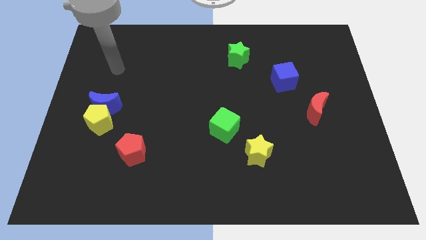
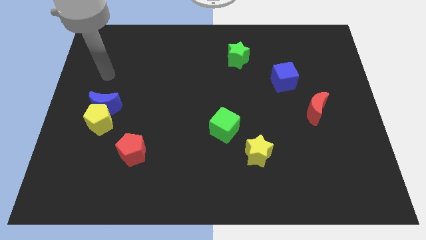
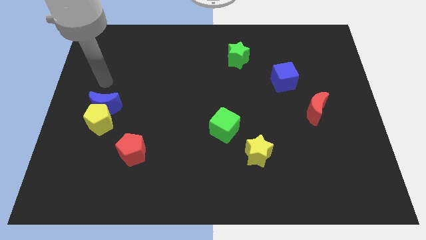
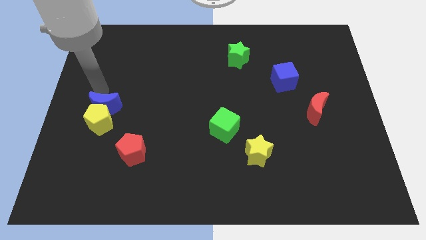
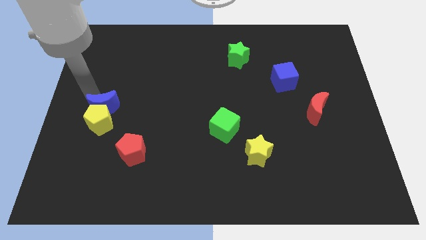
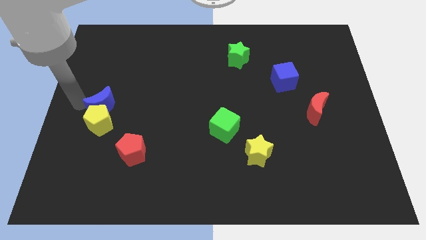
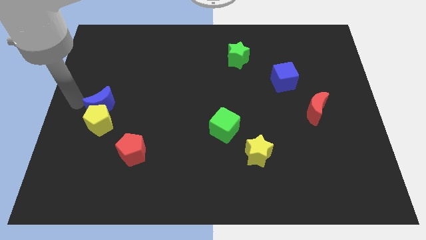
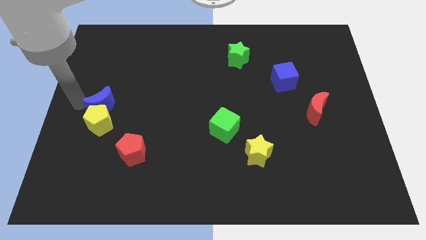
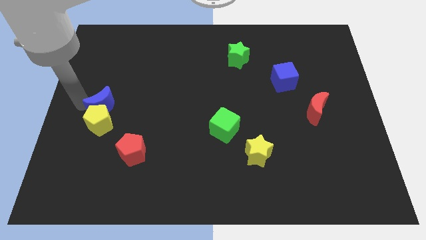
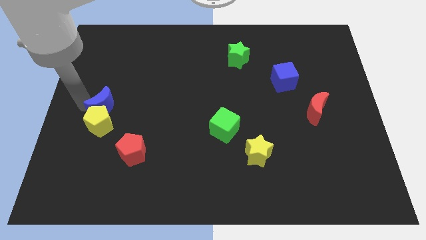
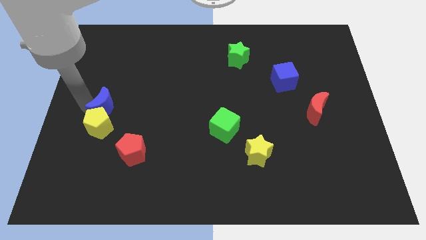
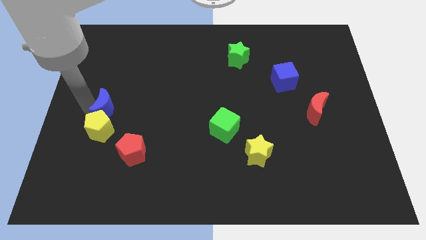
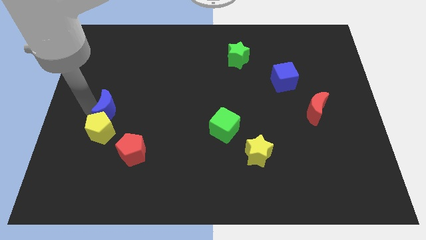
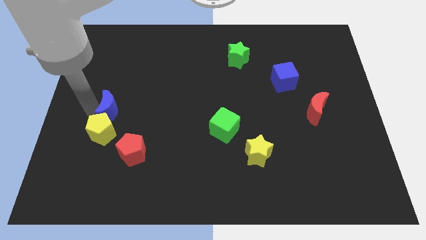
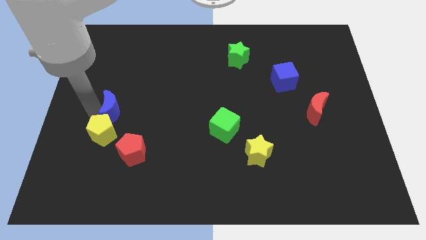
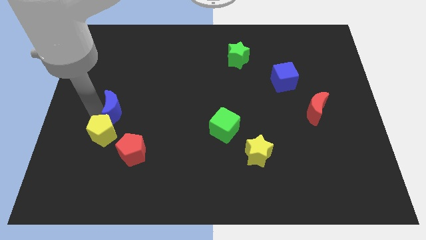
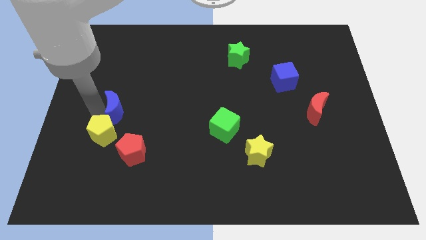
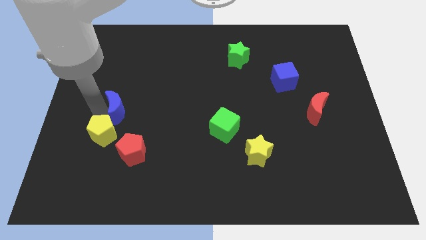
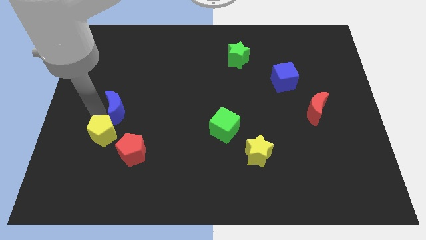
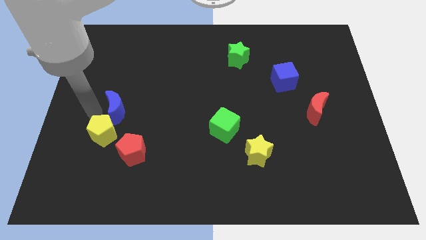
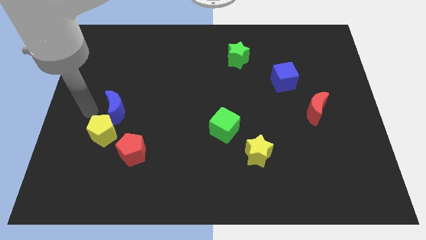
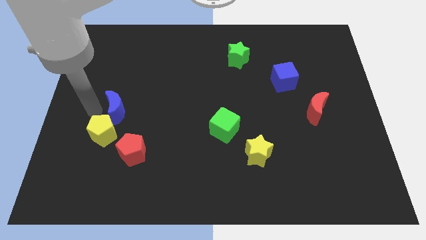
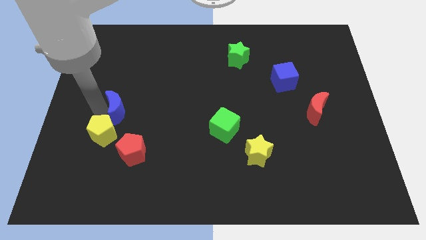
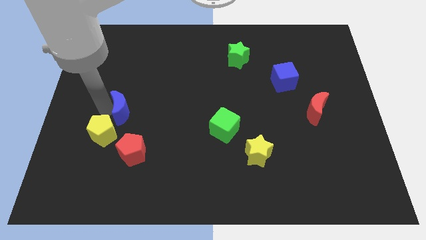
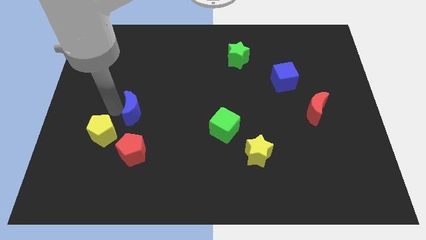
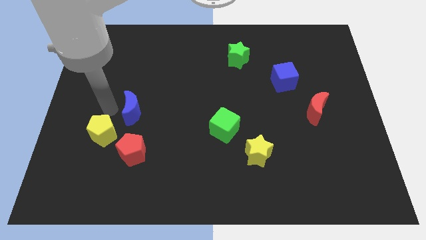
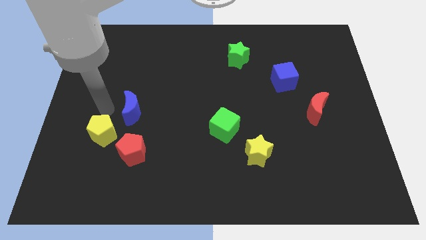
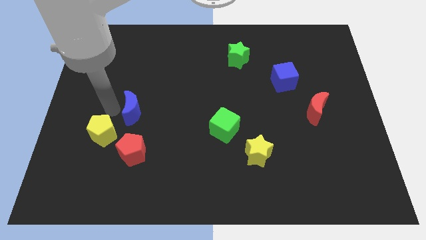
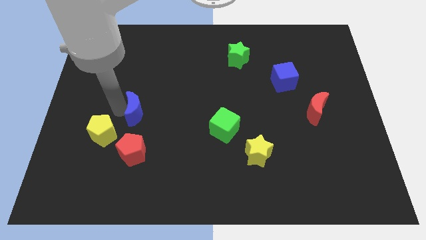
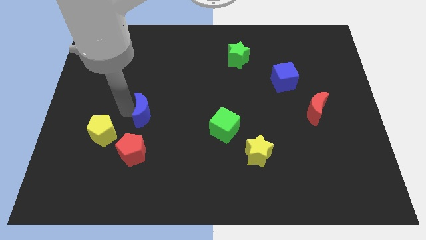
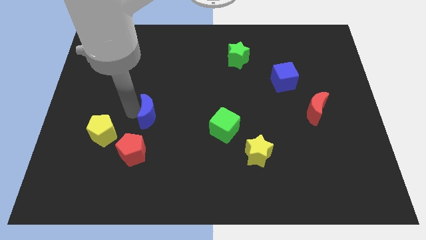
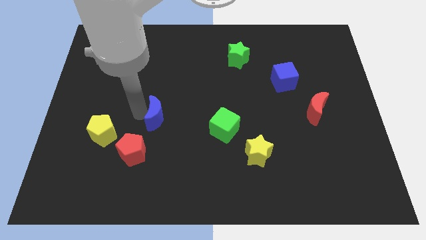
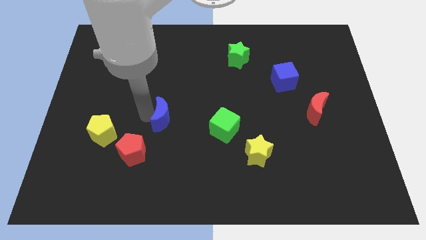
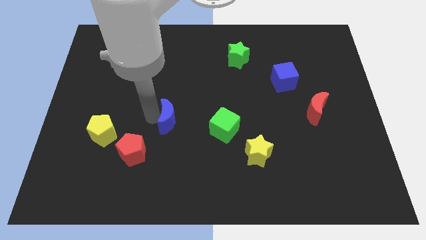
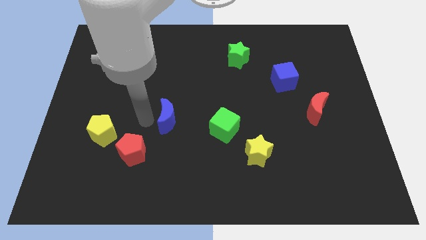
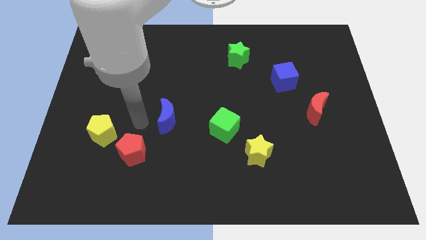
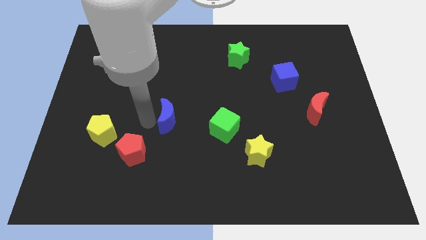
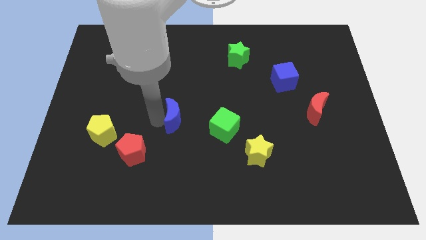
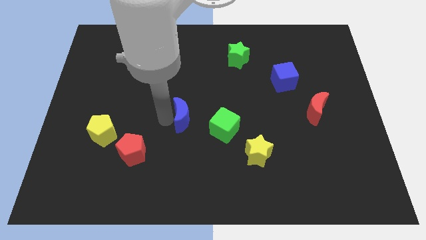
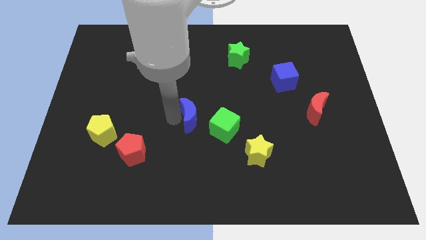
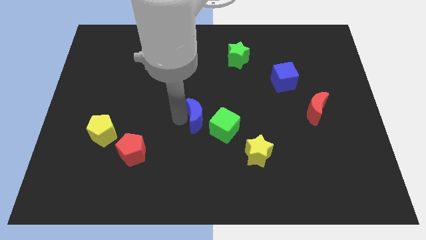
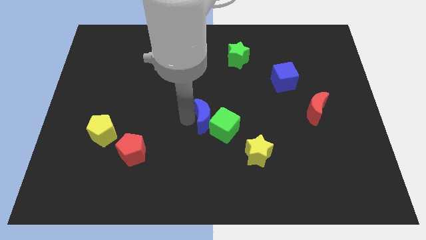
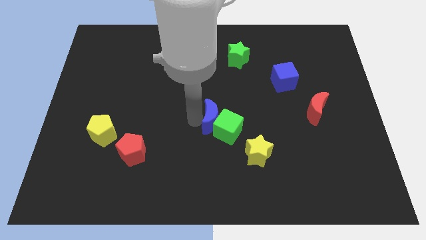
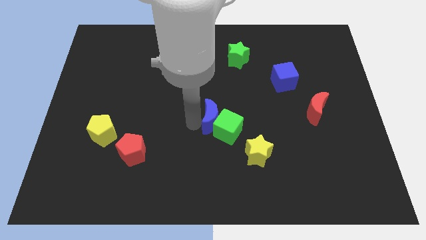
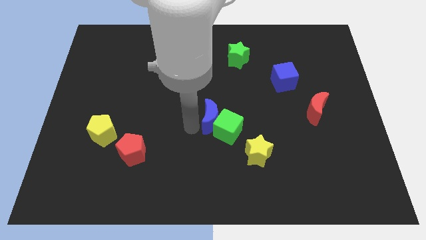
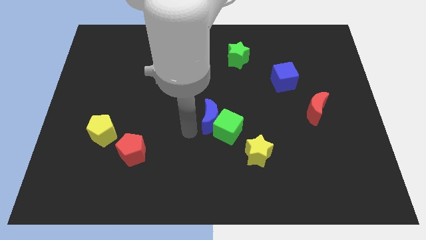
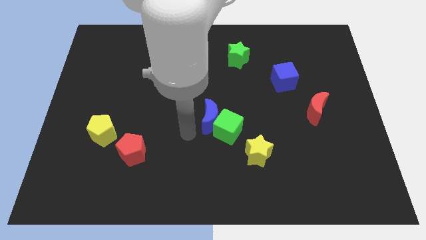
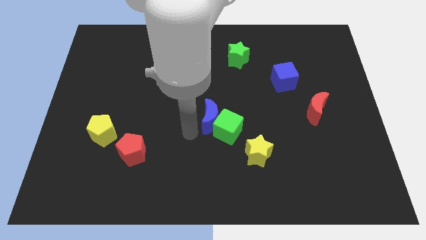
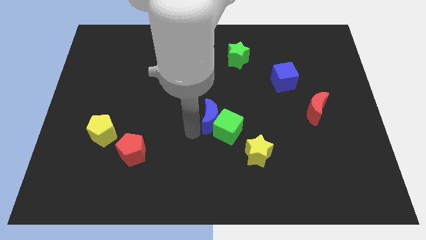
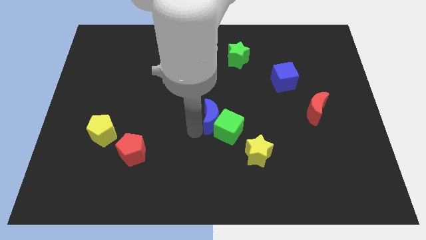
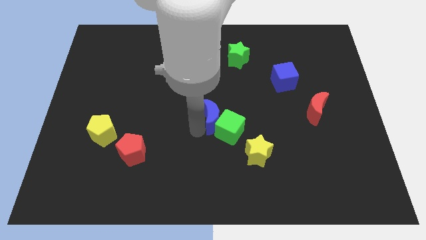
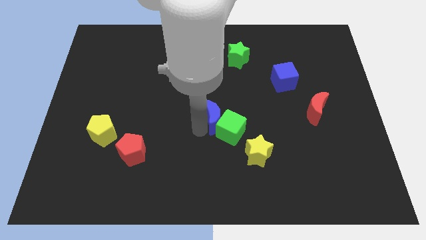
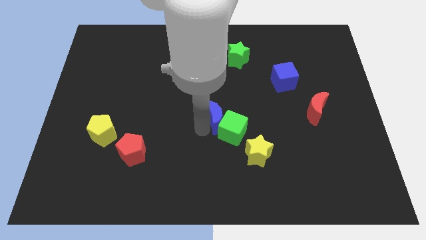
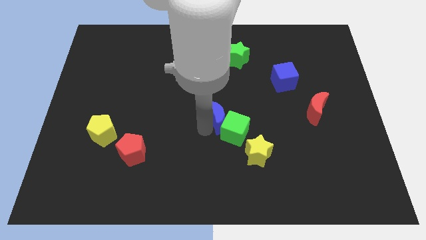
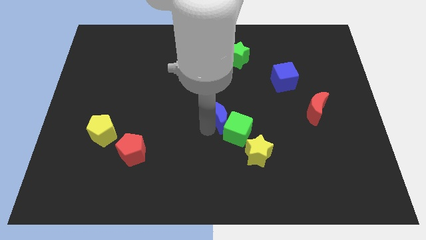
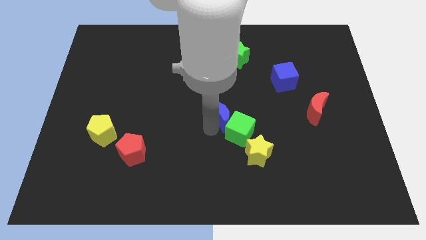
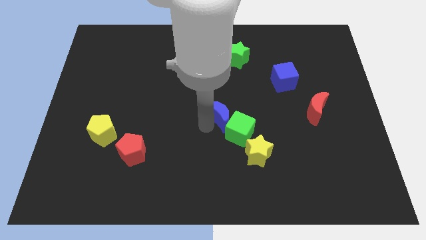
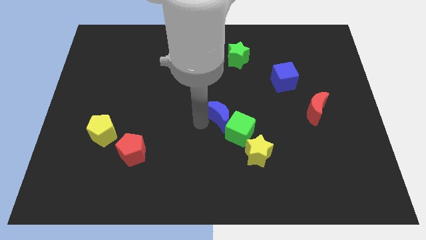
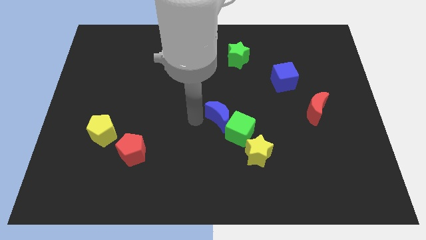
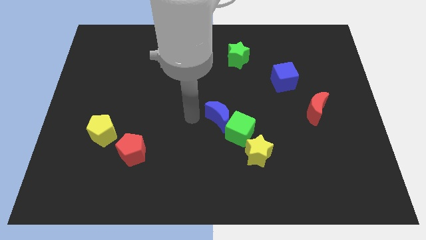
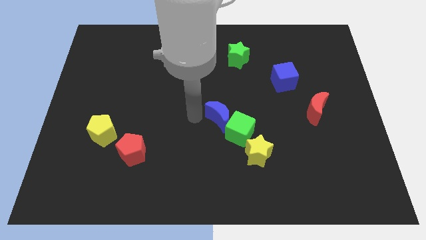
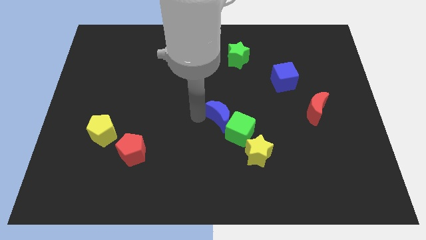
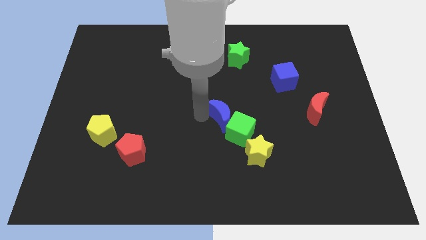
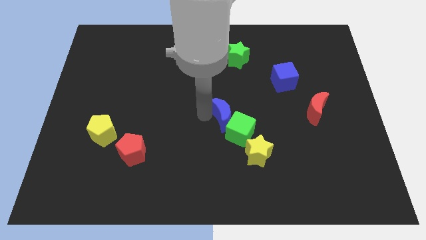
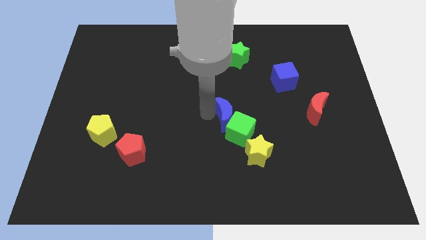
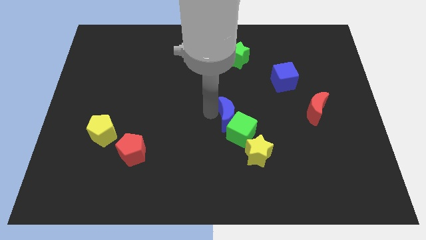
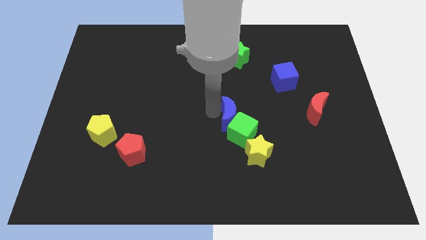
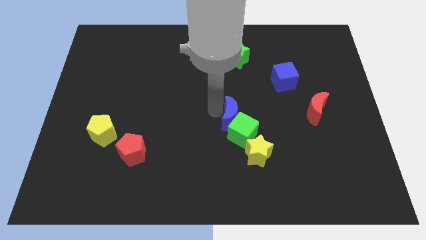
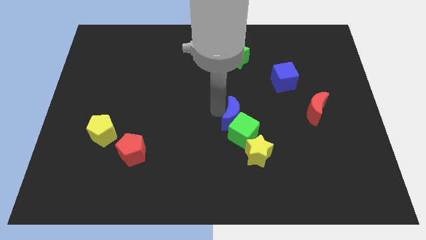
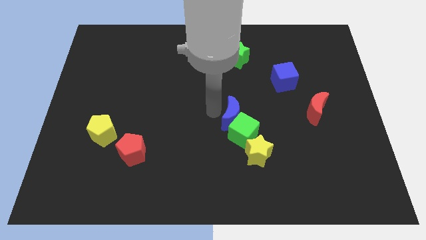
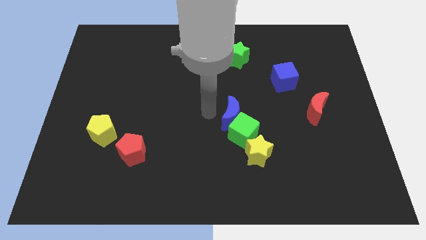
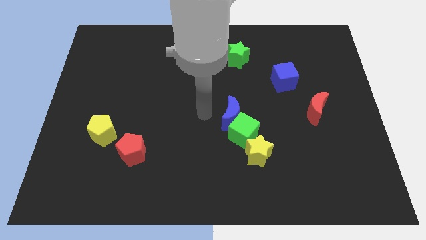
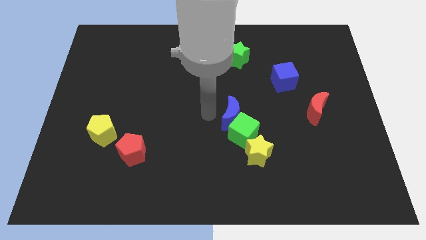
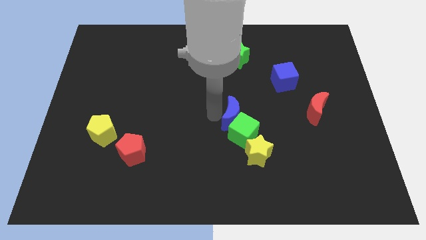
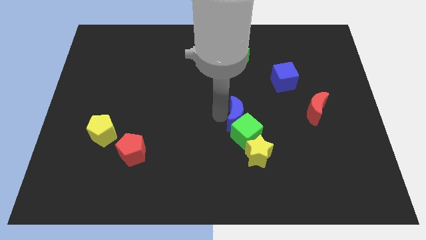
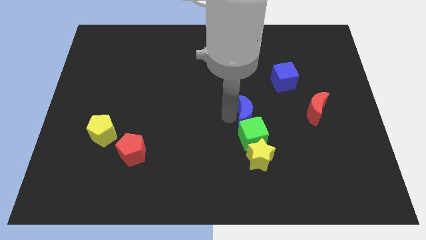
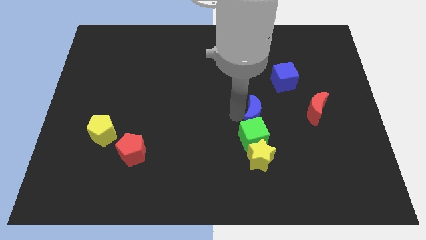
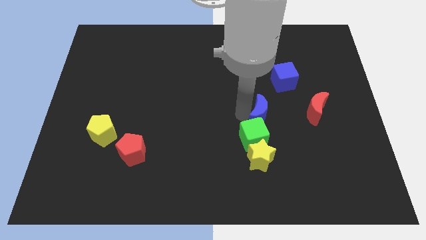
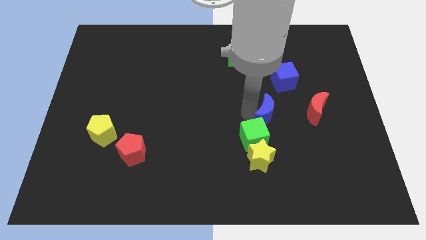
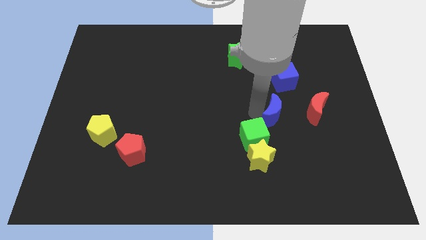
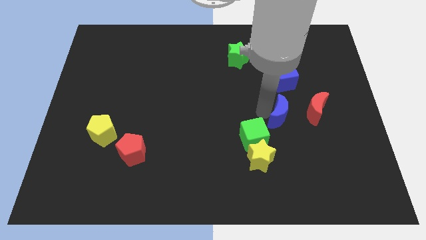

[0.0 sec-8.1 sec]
put the blue moon to the bottom left side of the red moon
